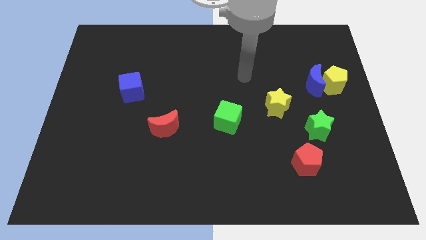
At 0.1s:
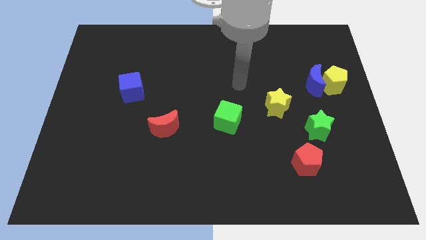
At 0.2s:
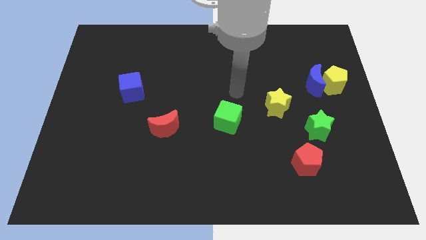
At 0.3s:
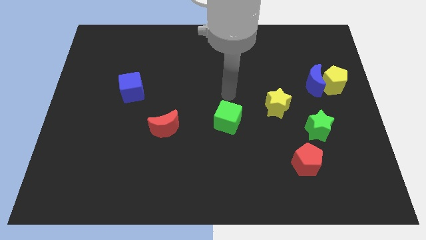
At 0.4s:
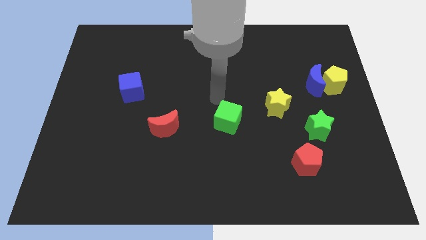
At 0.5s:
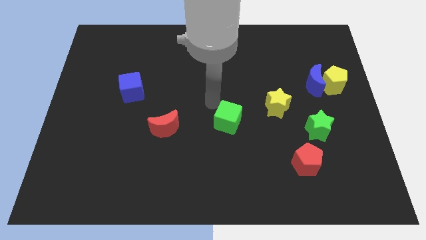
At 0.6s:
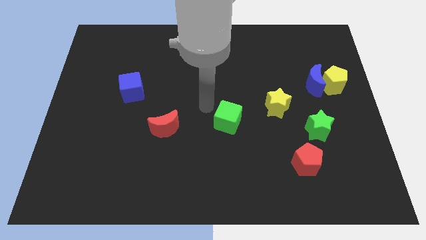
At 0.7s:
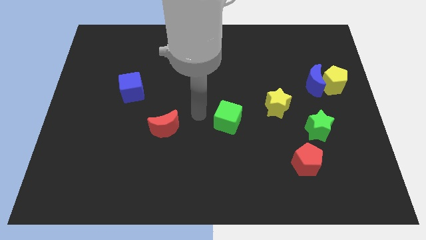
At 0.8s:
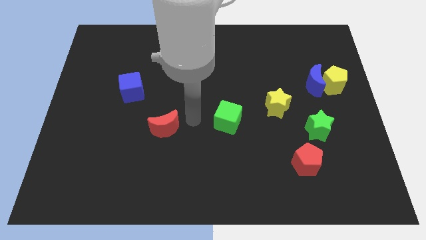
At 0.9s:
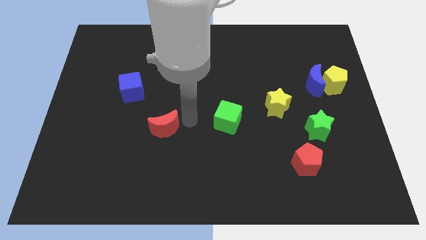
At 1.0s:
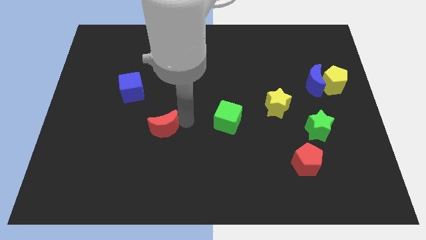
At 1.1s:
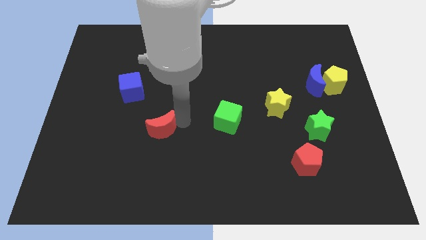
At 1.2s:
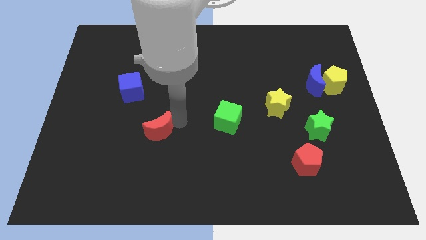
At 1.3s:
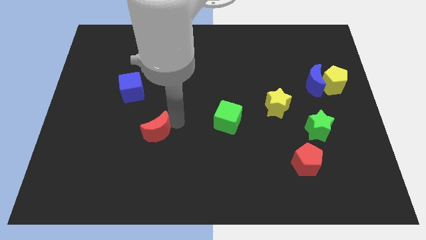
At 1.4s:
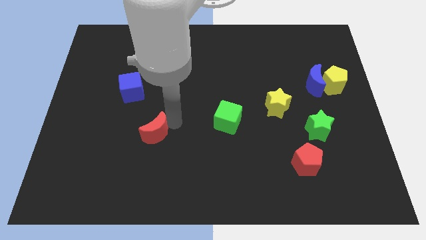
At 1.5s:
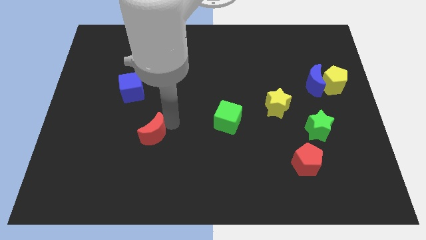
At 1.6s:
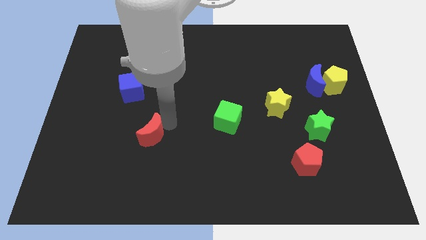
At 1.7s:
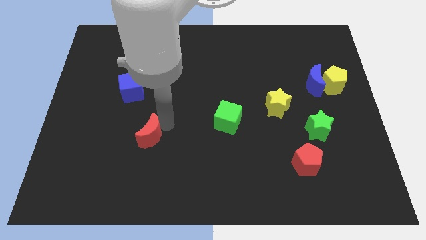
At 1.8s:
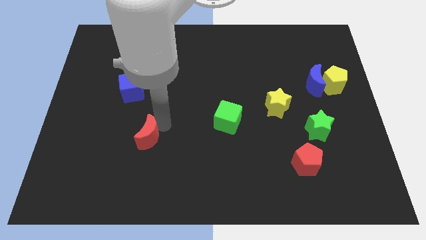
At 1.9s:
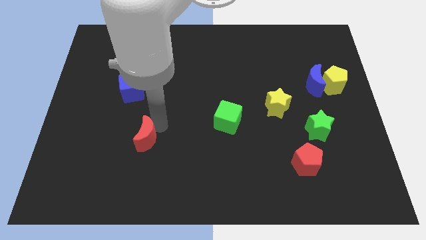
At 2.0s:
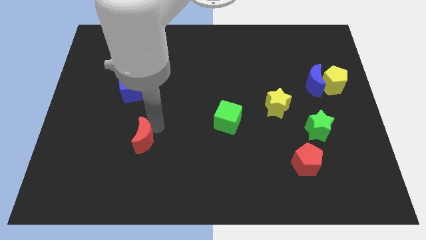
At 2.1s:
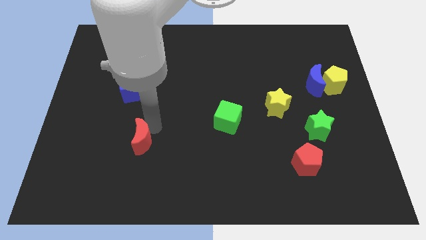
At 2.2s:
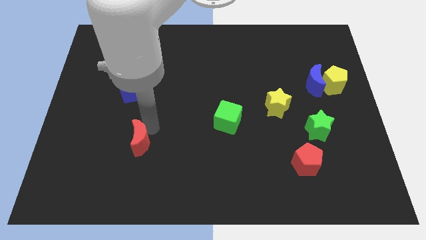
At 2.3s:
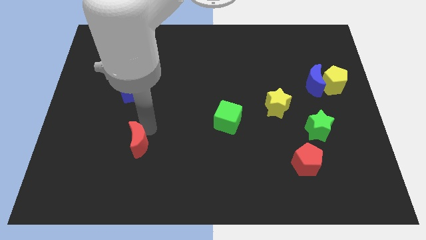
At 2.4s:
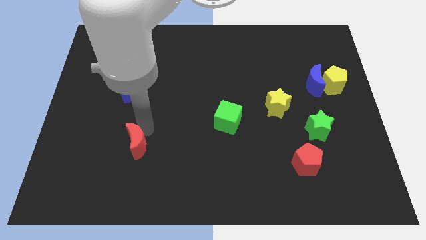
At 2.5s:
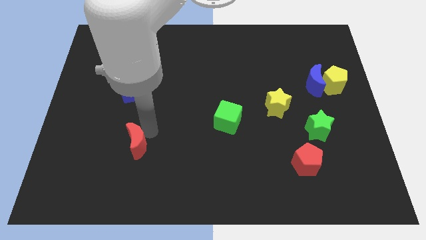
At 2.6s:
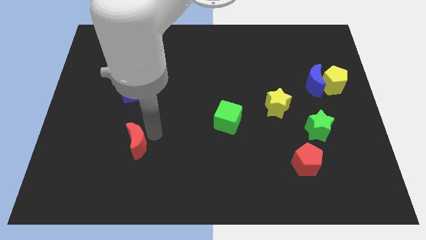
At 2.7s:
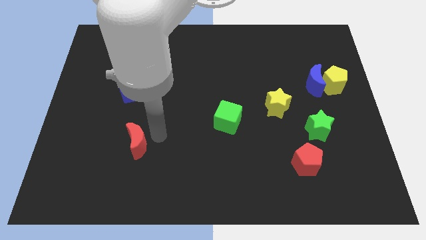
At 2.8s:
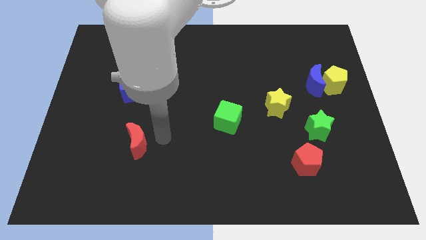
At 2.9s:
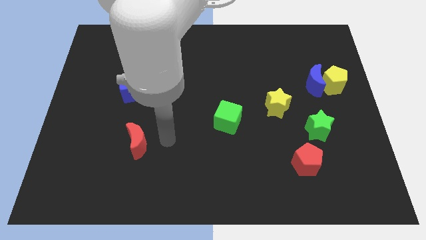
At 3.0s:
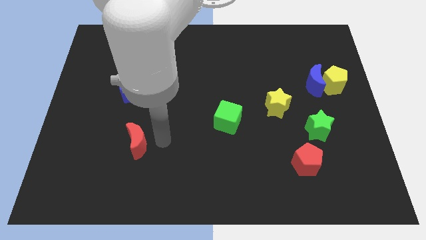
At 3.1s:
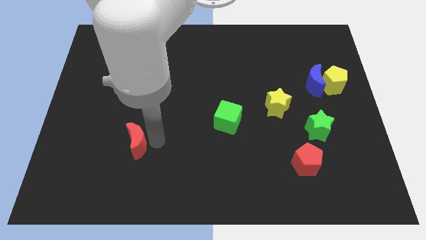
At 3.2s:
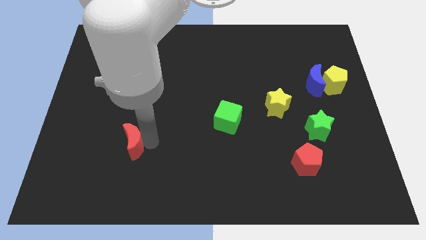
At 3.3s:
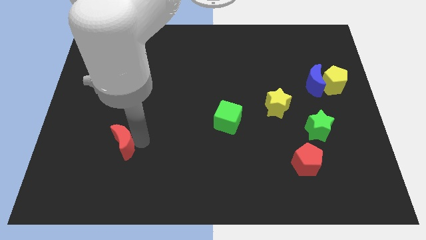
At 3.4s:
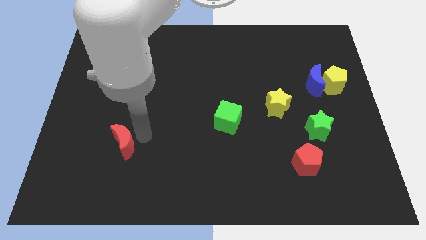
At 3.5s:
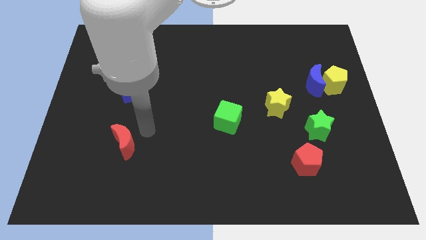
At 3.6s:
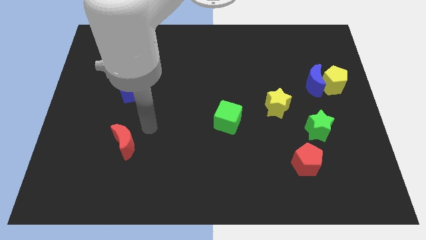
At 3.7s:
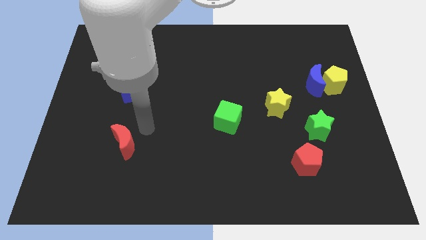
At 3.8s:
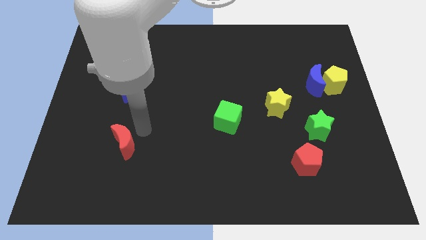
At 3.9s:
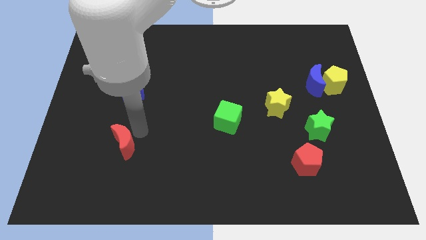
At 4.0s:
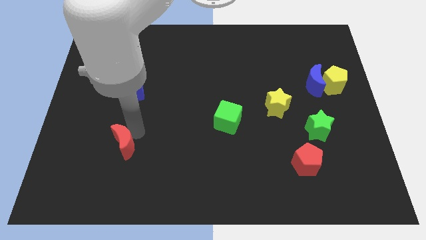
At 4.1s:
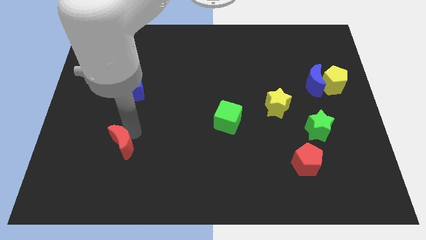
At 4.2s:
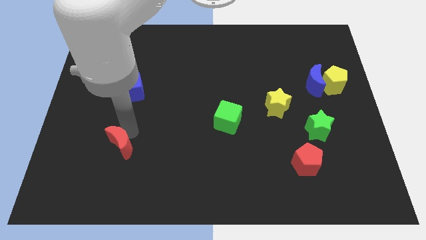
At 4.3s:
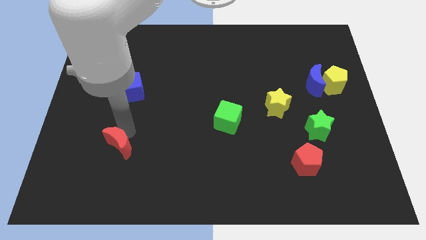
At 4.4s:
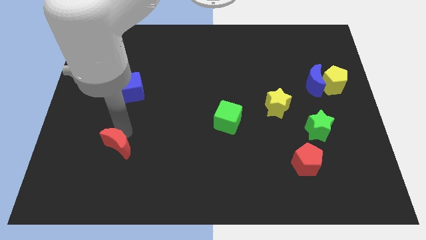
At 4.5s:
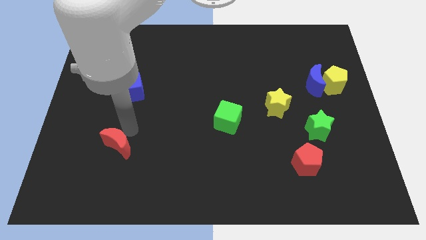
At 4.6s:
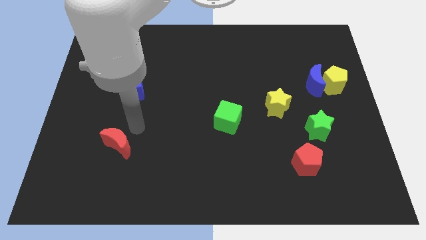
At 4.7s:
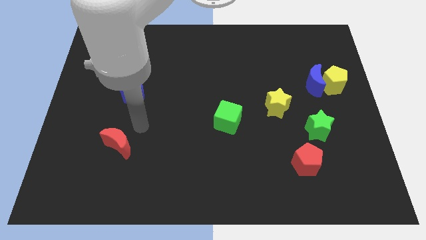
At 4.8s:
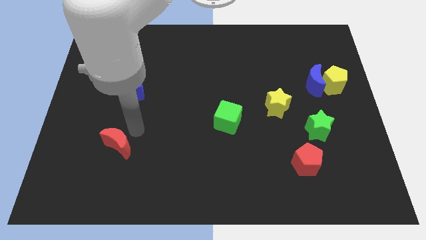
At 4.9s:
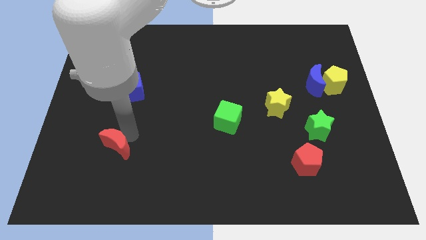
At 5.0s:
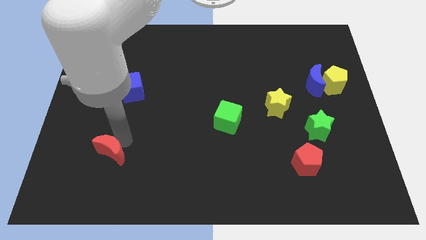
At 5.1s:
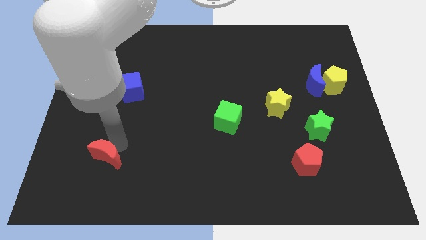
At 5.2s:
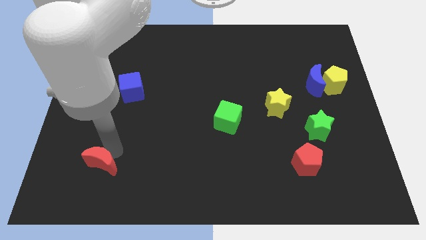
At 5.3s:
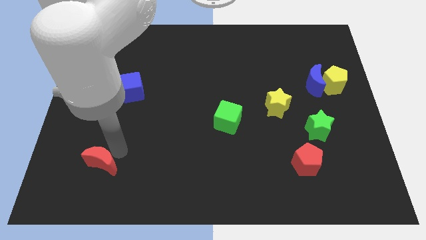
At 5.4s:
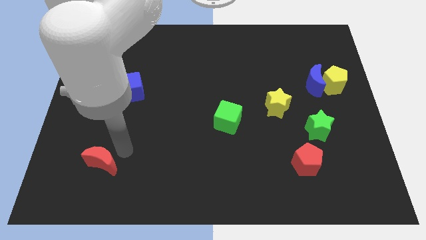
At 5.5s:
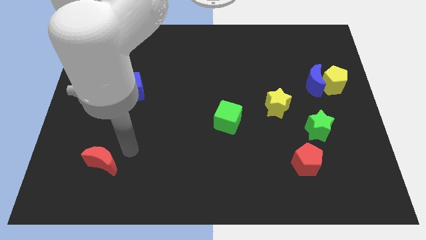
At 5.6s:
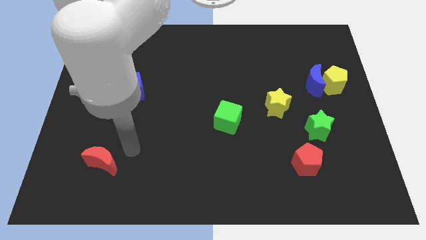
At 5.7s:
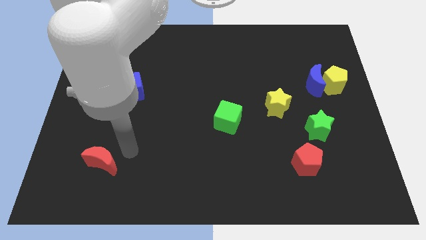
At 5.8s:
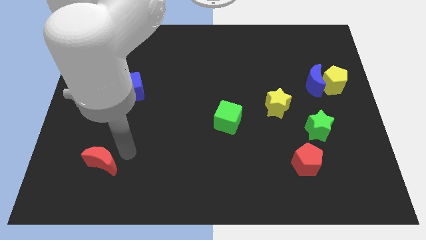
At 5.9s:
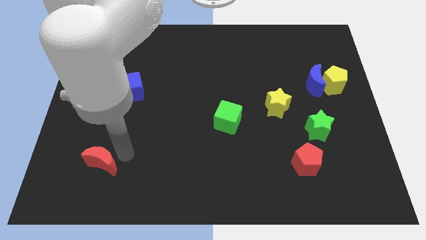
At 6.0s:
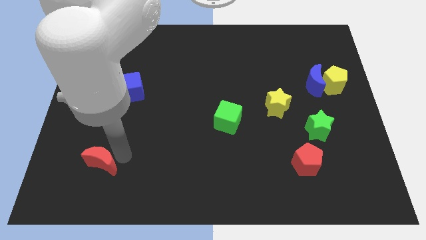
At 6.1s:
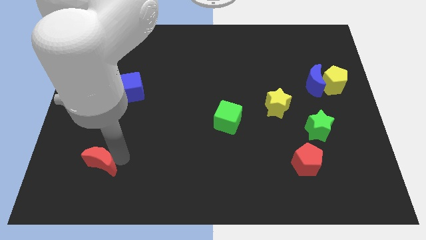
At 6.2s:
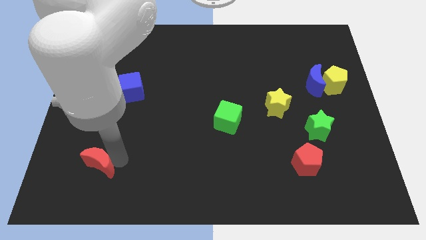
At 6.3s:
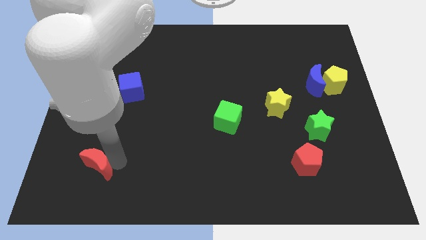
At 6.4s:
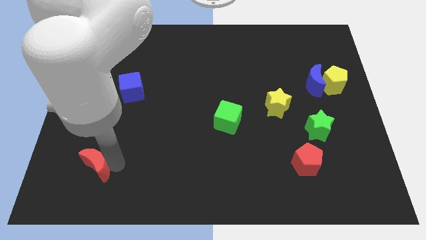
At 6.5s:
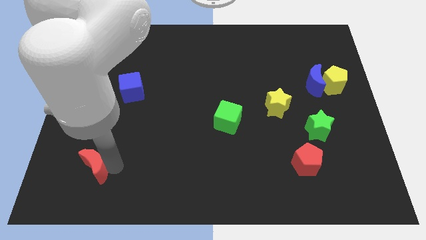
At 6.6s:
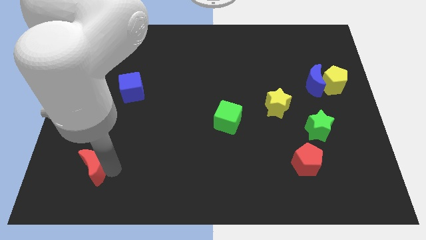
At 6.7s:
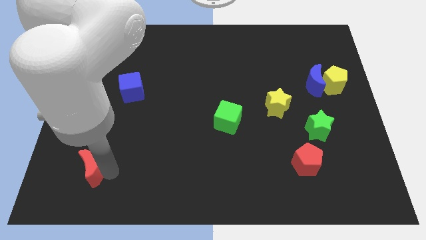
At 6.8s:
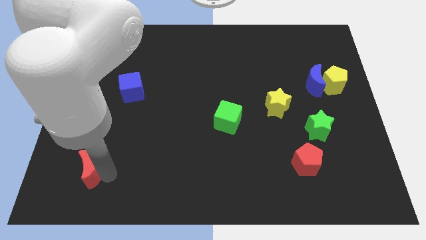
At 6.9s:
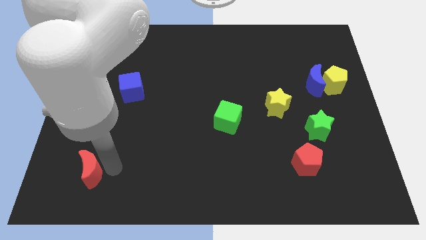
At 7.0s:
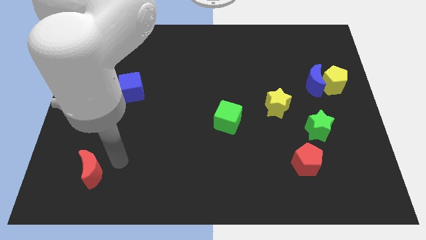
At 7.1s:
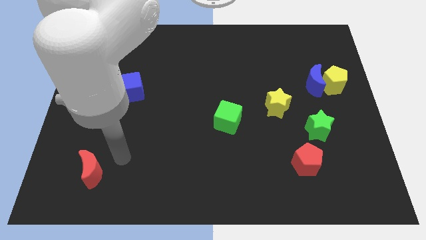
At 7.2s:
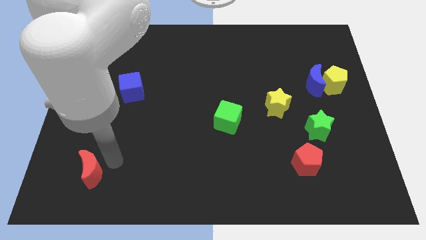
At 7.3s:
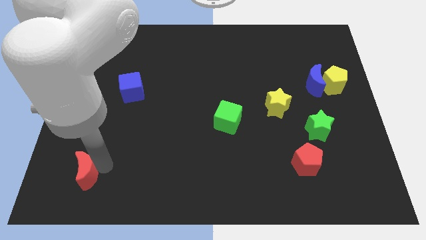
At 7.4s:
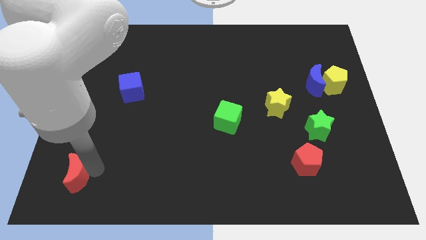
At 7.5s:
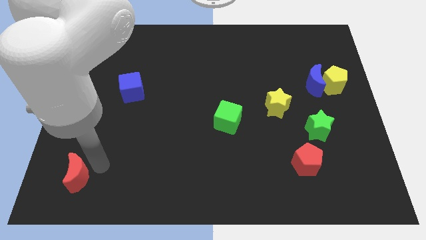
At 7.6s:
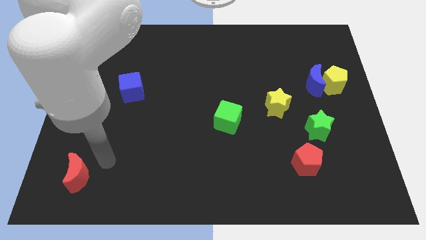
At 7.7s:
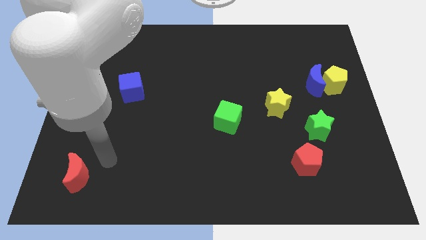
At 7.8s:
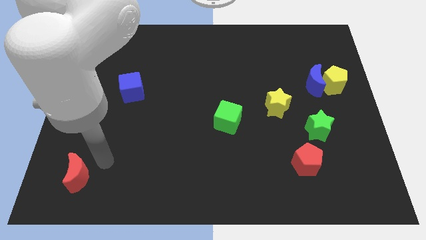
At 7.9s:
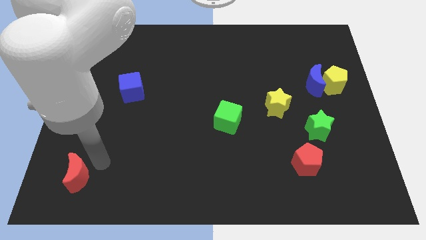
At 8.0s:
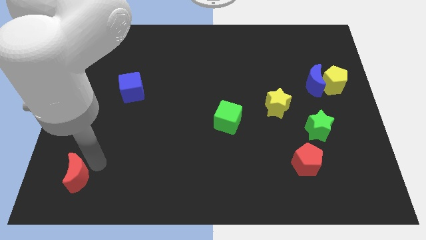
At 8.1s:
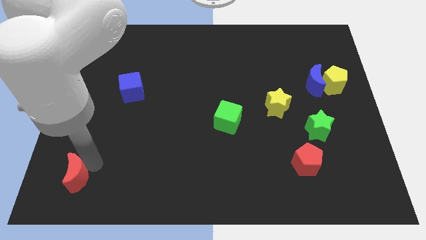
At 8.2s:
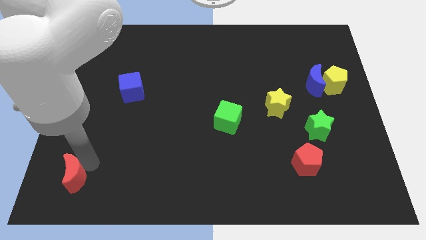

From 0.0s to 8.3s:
put the red moon to the bottom left of the board
